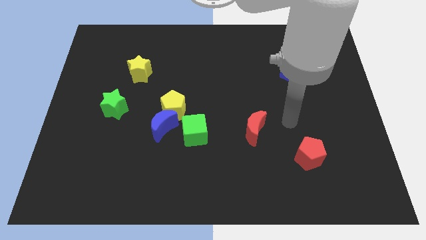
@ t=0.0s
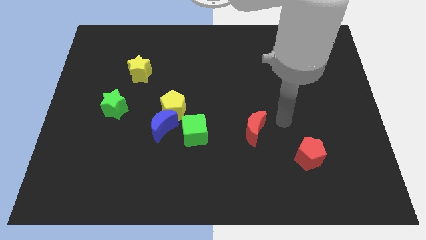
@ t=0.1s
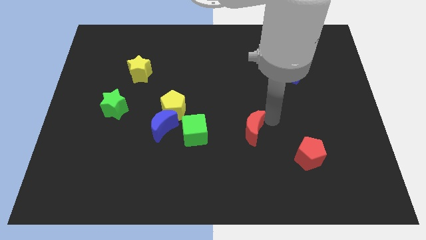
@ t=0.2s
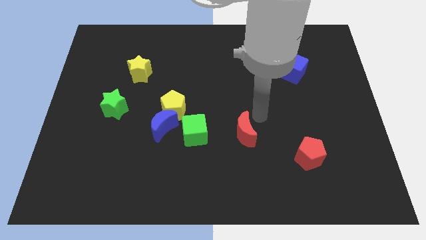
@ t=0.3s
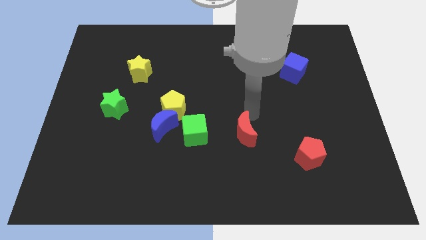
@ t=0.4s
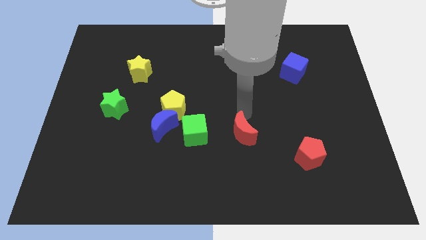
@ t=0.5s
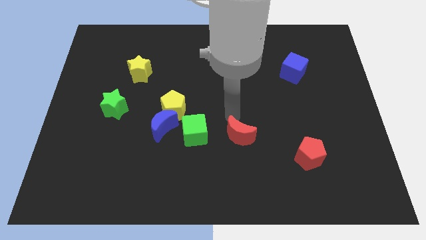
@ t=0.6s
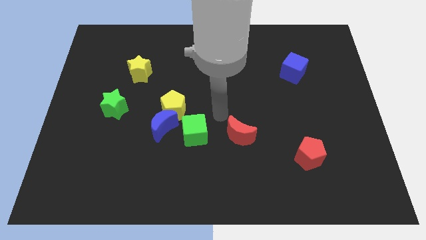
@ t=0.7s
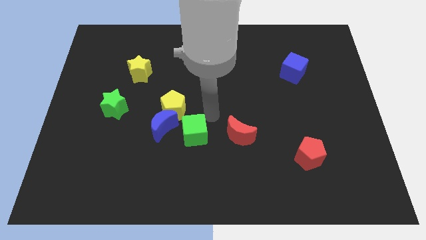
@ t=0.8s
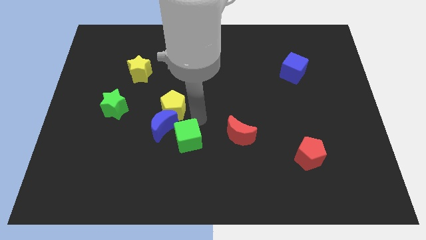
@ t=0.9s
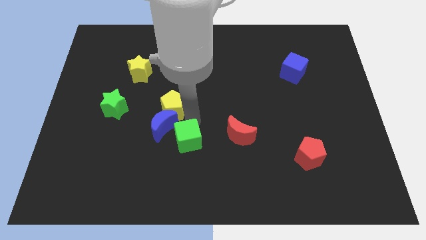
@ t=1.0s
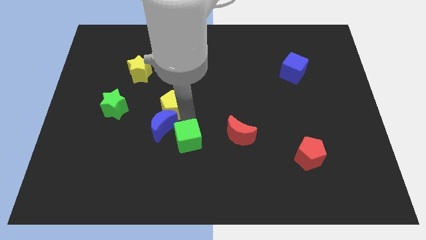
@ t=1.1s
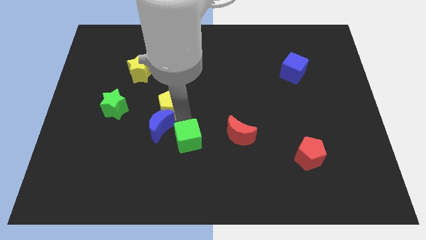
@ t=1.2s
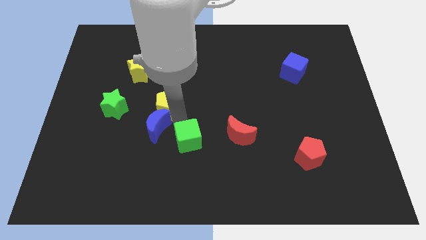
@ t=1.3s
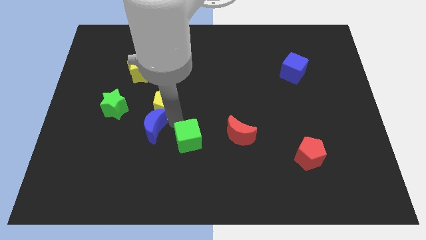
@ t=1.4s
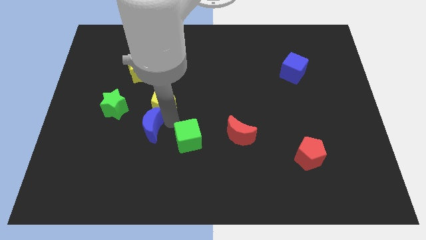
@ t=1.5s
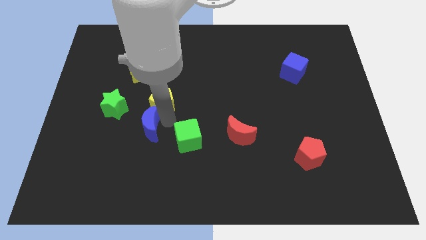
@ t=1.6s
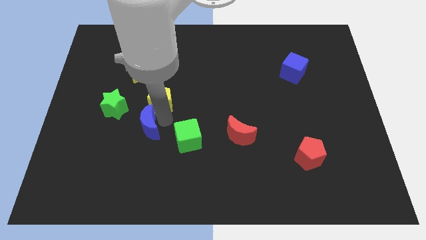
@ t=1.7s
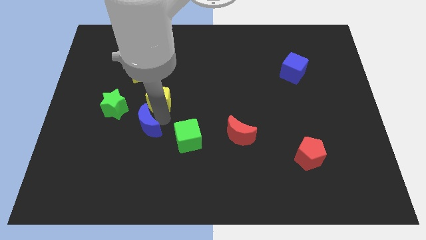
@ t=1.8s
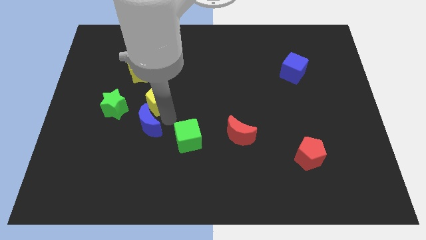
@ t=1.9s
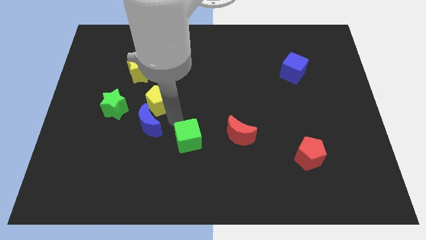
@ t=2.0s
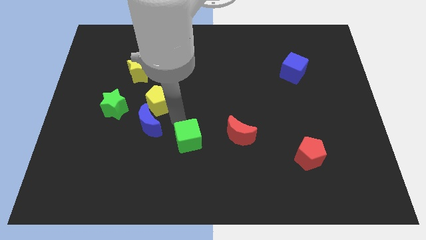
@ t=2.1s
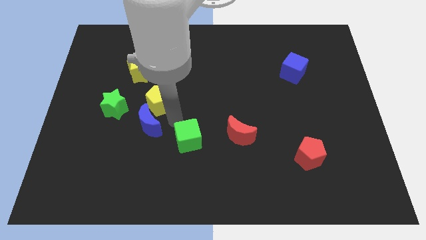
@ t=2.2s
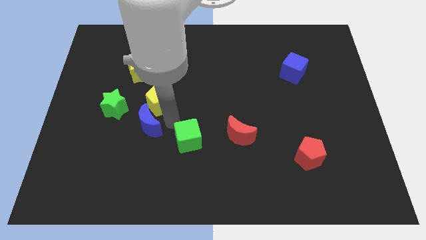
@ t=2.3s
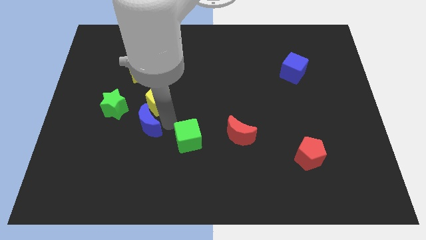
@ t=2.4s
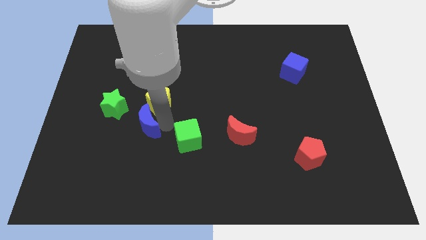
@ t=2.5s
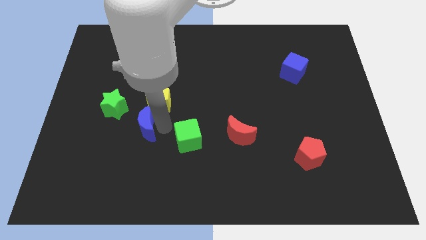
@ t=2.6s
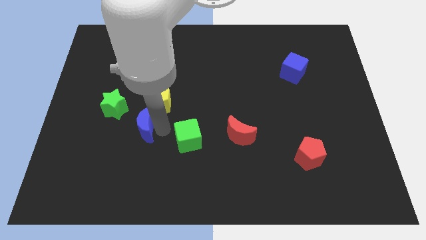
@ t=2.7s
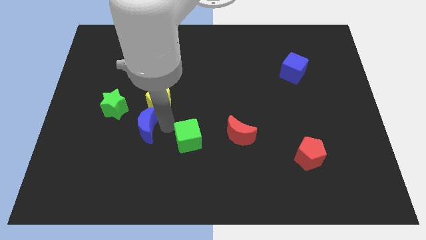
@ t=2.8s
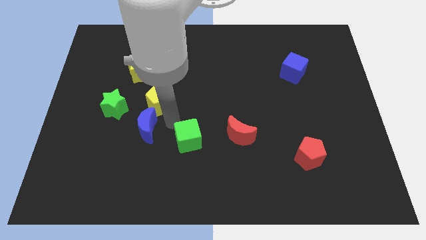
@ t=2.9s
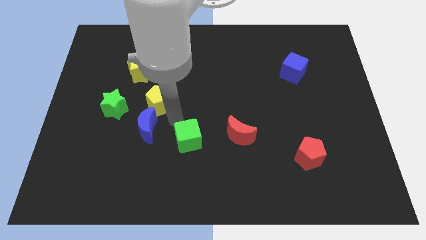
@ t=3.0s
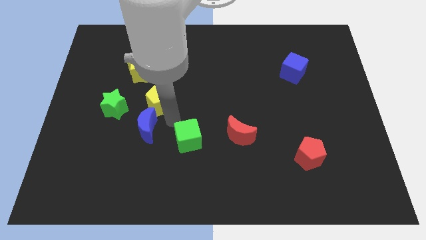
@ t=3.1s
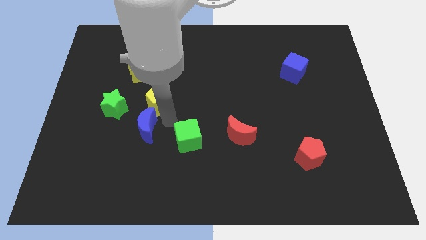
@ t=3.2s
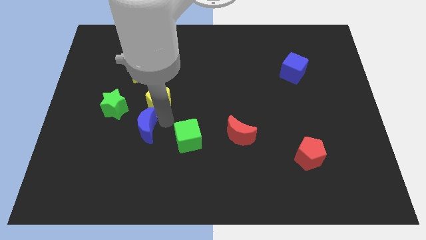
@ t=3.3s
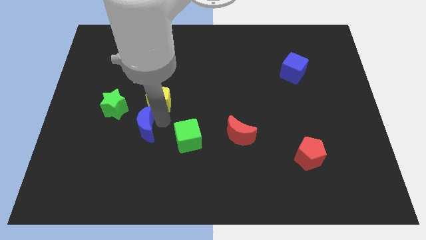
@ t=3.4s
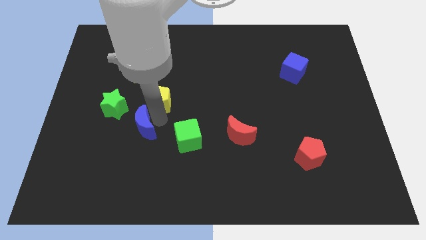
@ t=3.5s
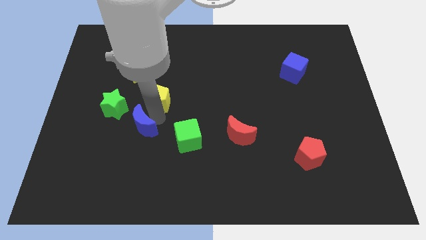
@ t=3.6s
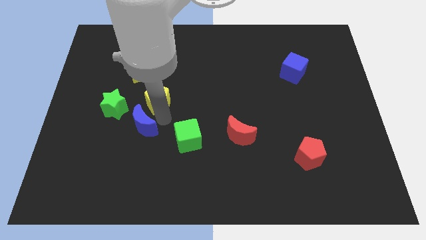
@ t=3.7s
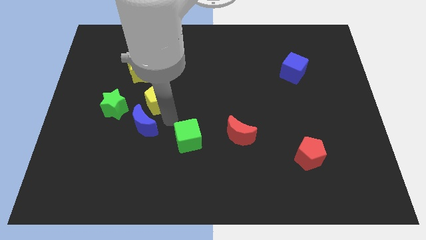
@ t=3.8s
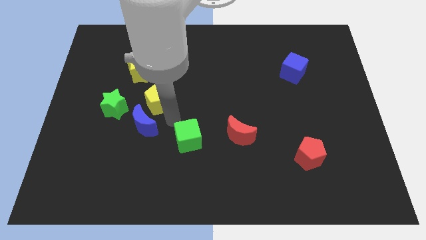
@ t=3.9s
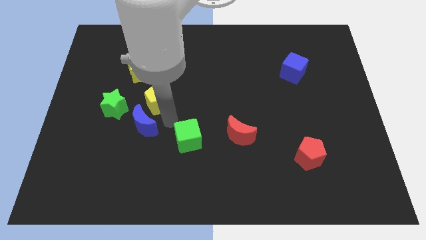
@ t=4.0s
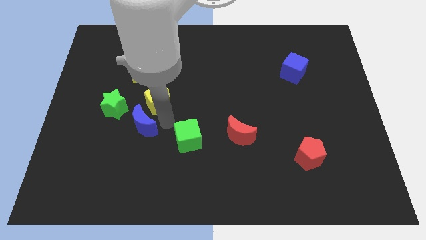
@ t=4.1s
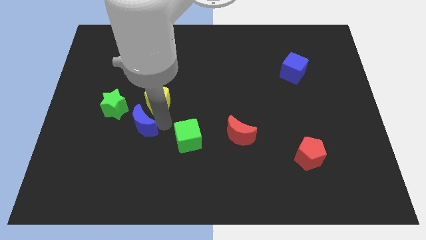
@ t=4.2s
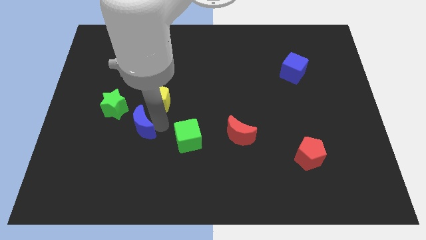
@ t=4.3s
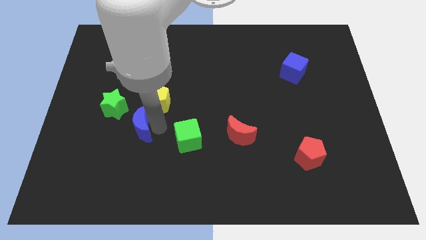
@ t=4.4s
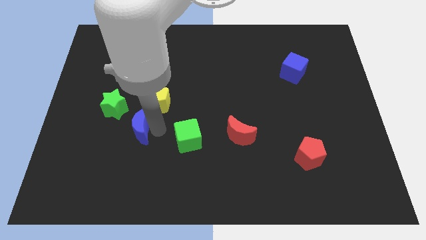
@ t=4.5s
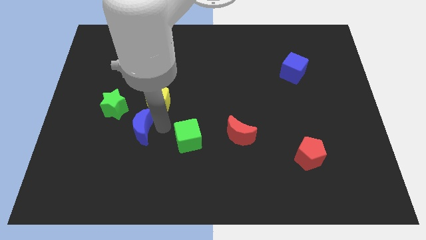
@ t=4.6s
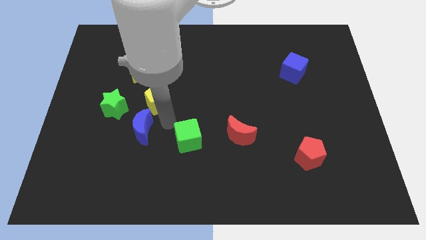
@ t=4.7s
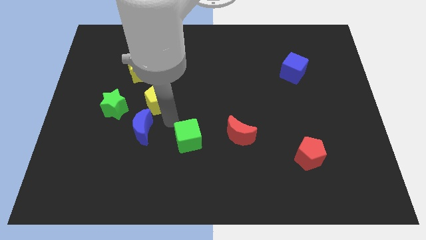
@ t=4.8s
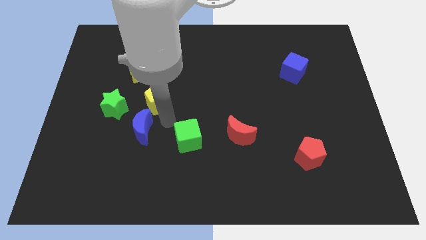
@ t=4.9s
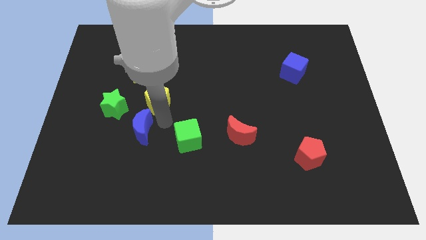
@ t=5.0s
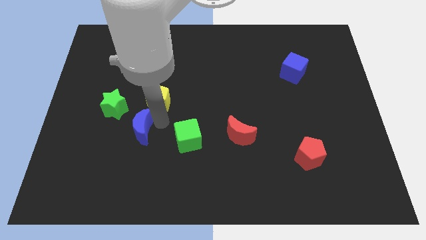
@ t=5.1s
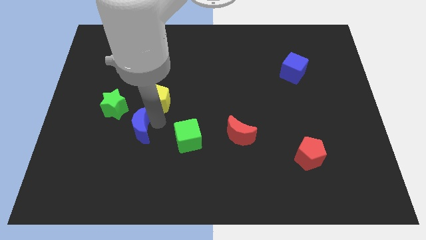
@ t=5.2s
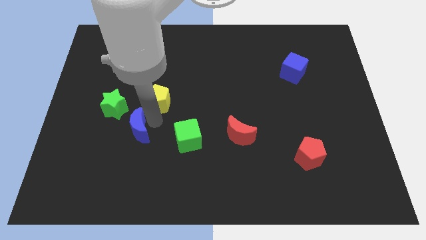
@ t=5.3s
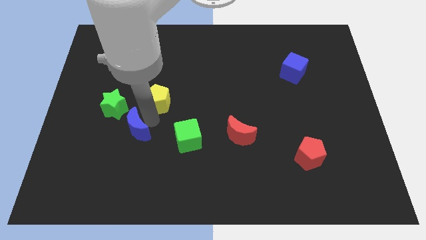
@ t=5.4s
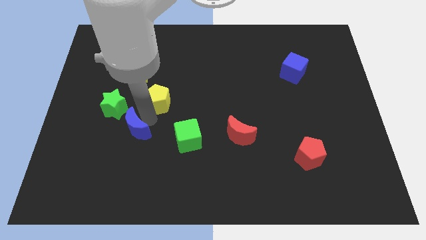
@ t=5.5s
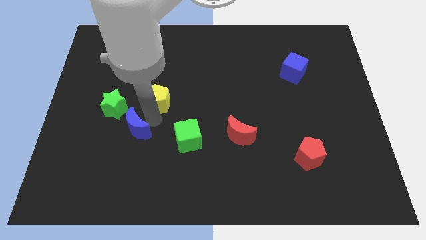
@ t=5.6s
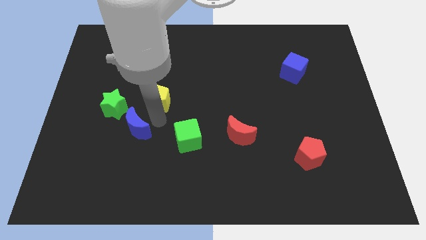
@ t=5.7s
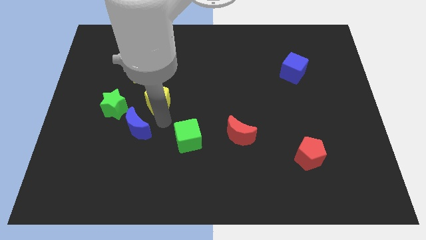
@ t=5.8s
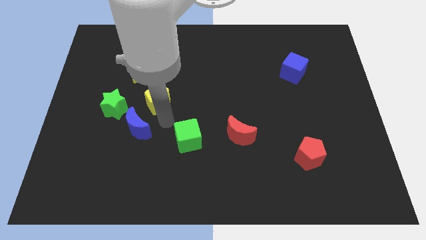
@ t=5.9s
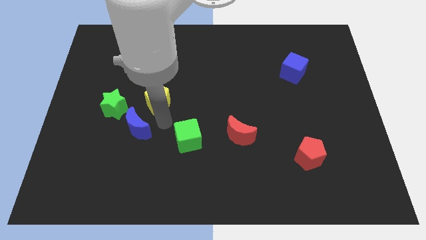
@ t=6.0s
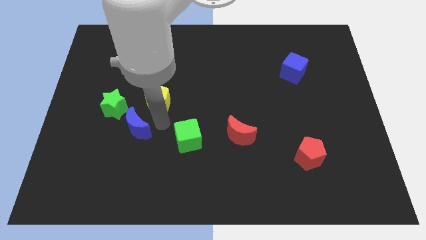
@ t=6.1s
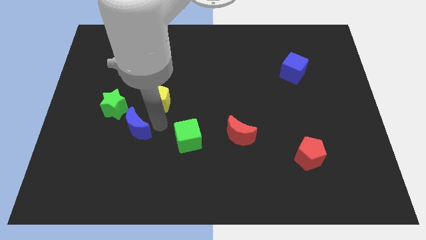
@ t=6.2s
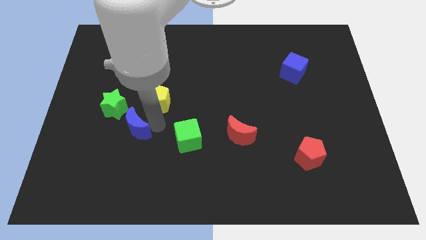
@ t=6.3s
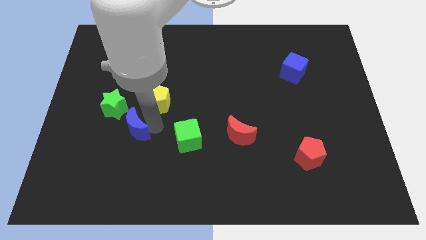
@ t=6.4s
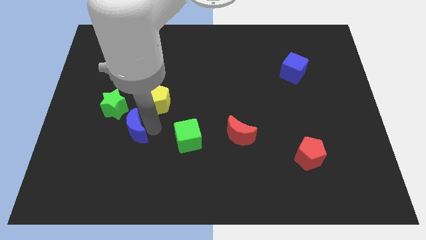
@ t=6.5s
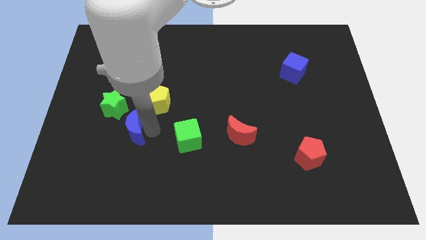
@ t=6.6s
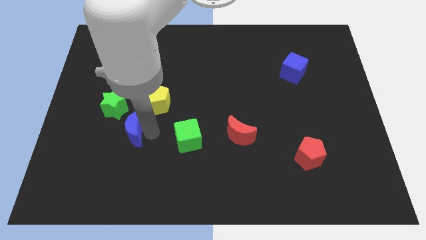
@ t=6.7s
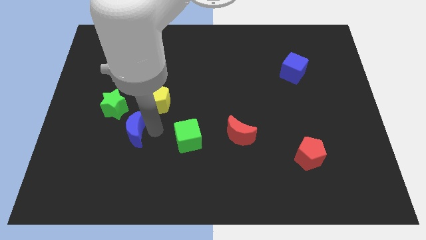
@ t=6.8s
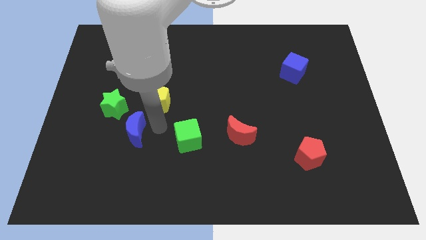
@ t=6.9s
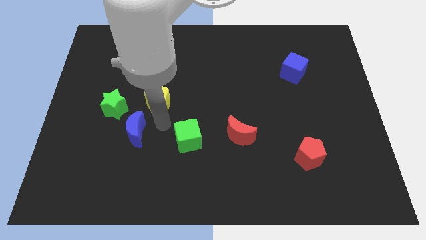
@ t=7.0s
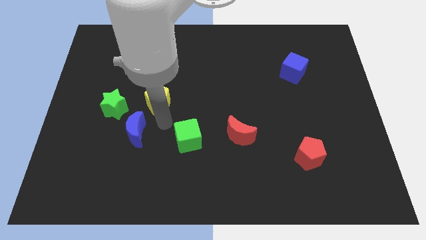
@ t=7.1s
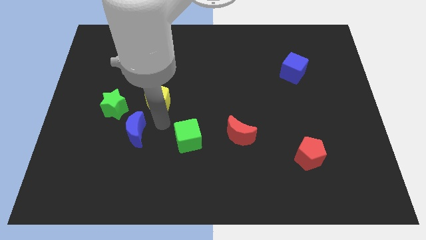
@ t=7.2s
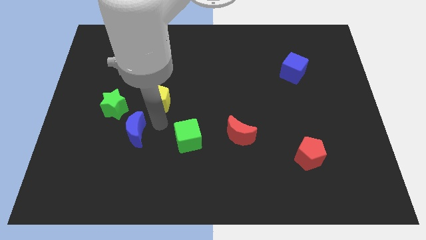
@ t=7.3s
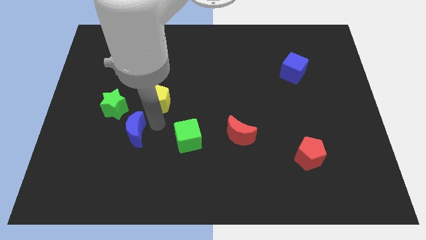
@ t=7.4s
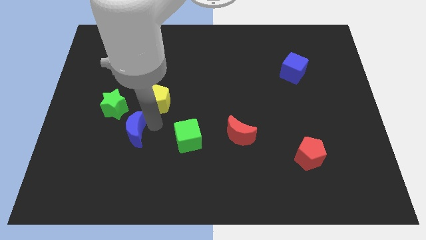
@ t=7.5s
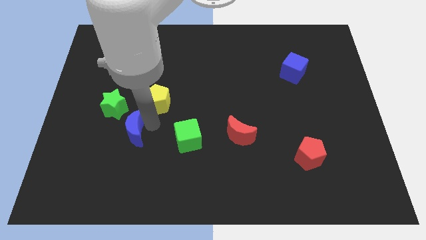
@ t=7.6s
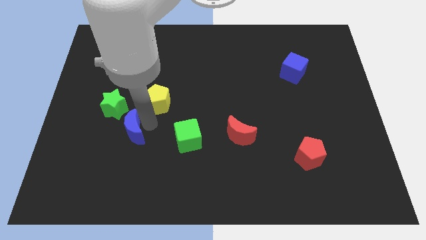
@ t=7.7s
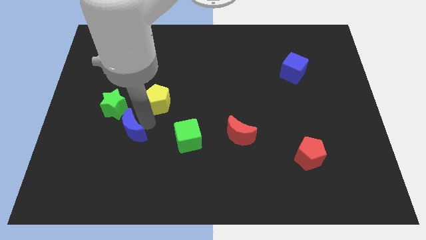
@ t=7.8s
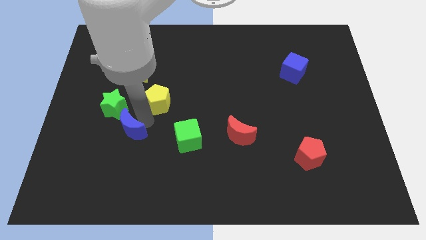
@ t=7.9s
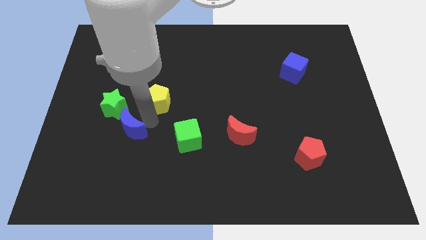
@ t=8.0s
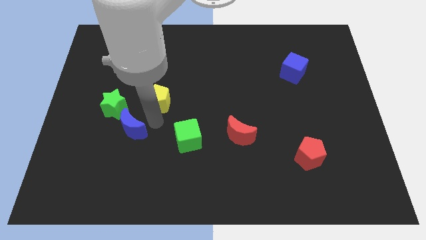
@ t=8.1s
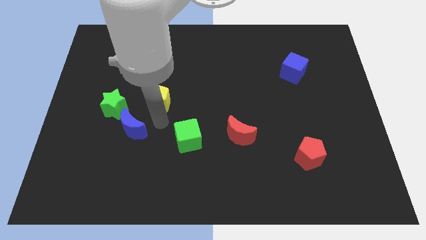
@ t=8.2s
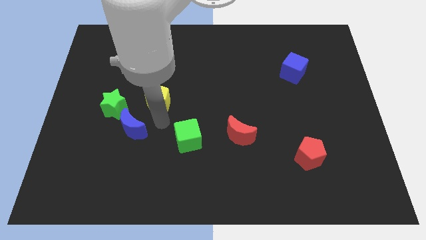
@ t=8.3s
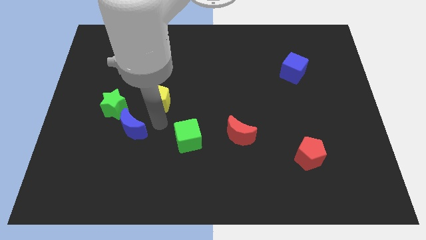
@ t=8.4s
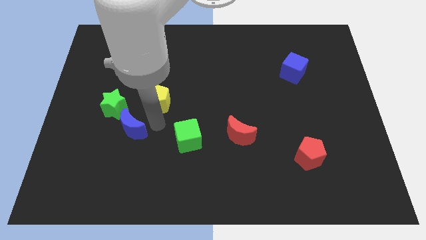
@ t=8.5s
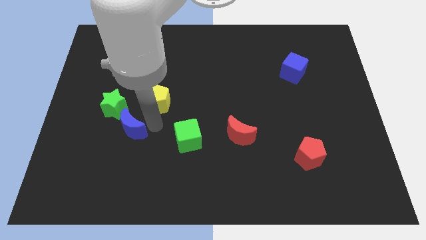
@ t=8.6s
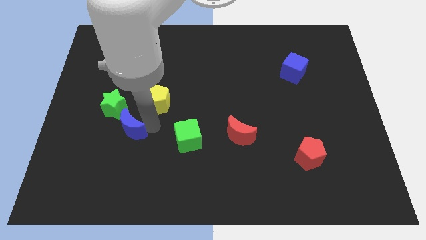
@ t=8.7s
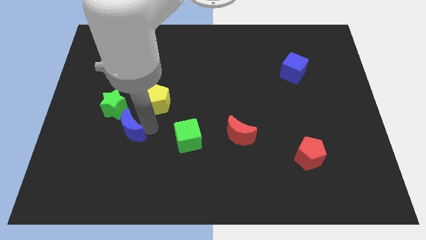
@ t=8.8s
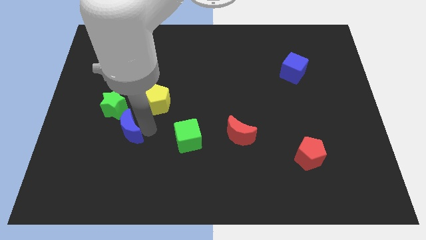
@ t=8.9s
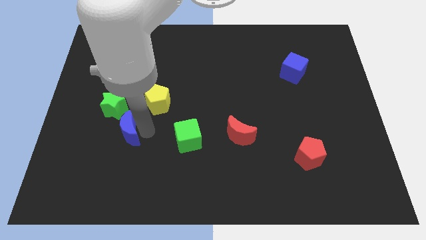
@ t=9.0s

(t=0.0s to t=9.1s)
separate the blue moon from the yellow pentagon and green cube

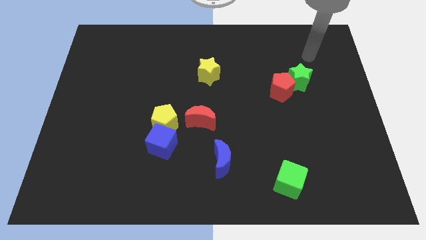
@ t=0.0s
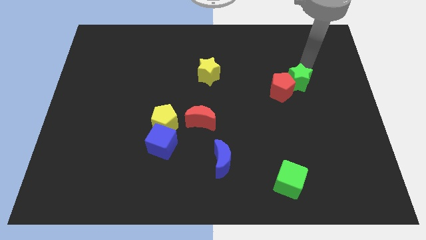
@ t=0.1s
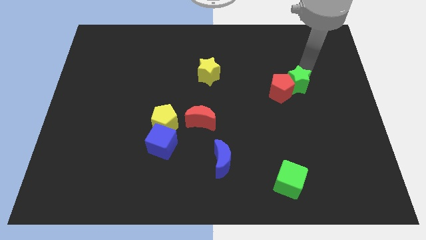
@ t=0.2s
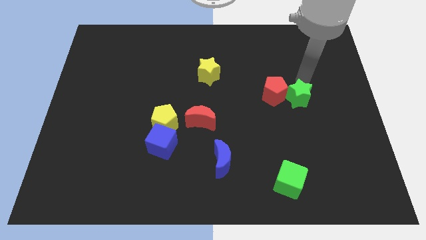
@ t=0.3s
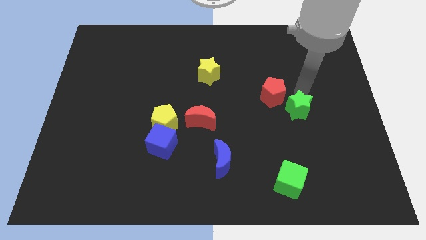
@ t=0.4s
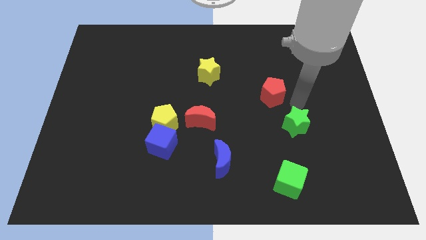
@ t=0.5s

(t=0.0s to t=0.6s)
move the red pentagon away from the green star
